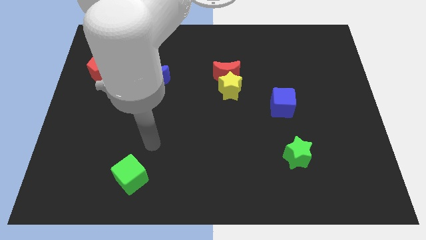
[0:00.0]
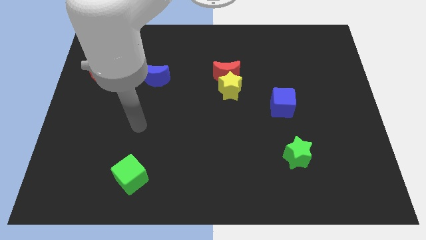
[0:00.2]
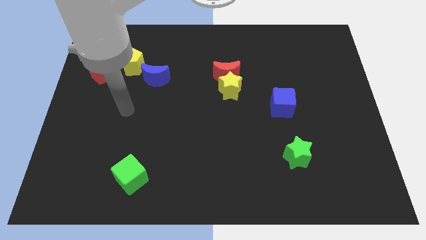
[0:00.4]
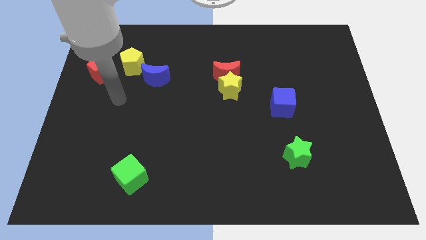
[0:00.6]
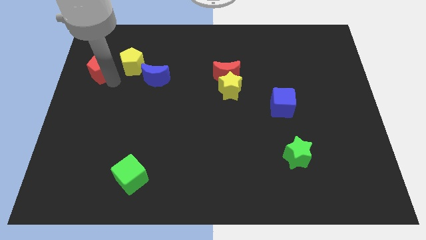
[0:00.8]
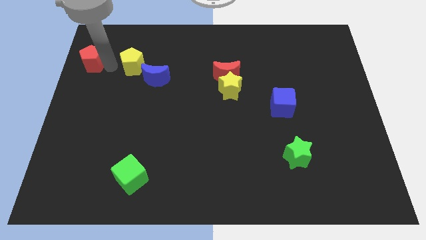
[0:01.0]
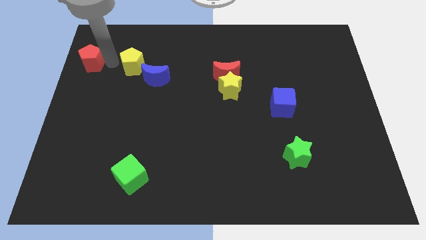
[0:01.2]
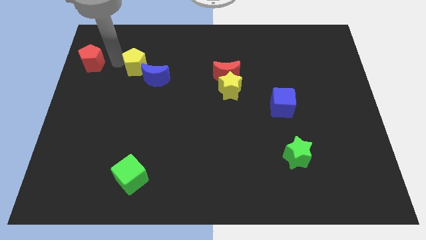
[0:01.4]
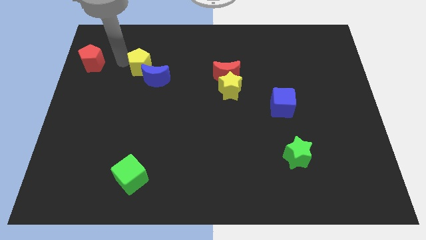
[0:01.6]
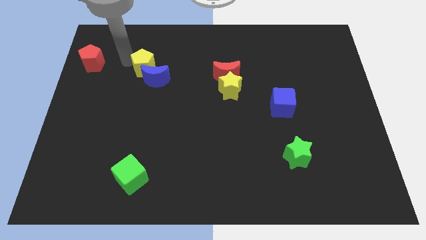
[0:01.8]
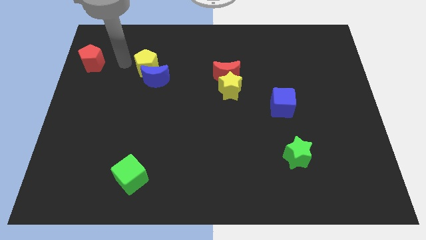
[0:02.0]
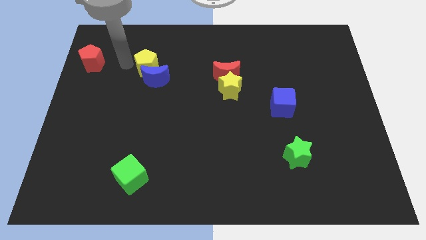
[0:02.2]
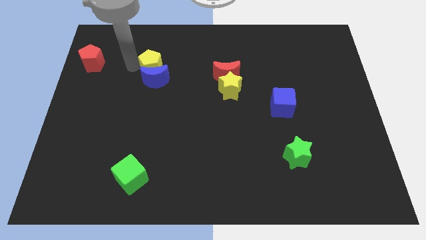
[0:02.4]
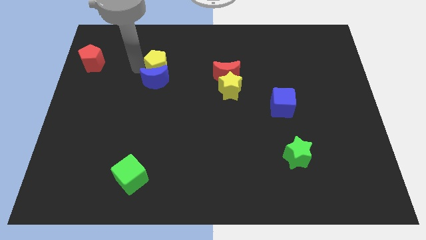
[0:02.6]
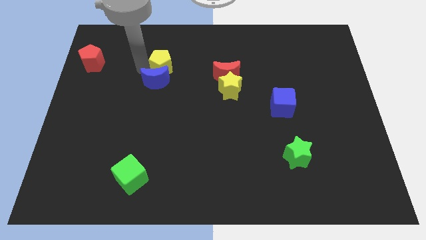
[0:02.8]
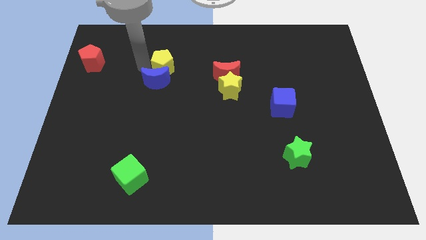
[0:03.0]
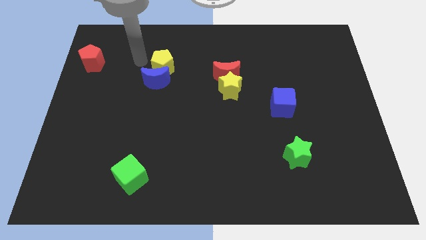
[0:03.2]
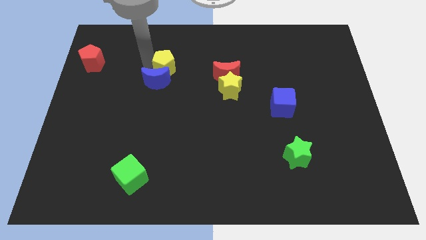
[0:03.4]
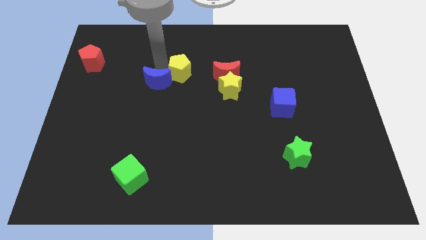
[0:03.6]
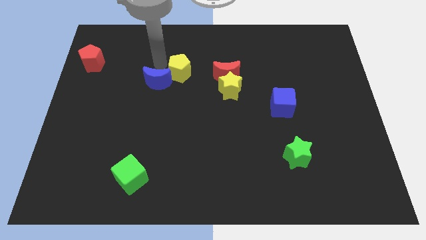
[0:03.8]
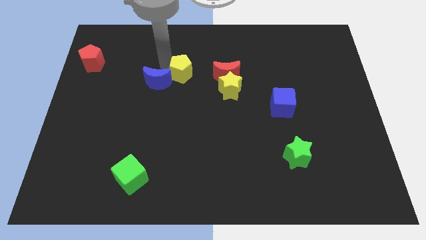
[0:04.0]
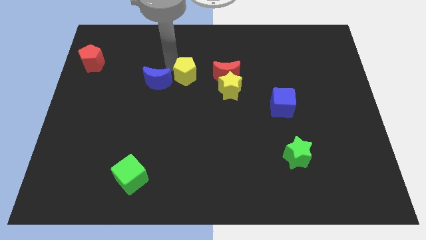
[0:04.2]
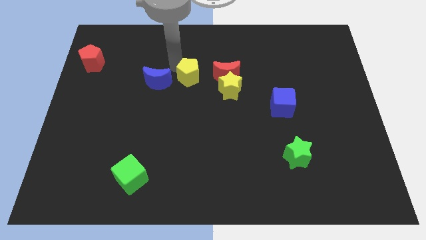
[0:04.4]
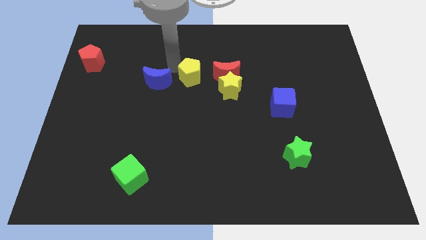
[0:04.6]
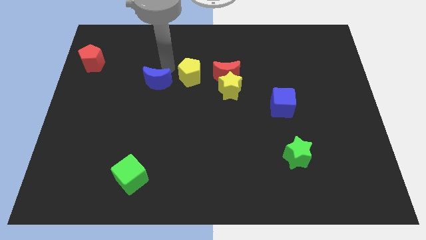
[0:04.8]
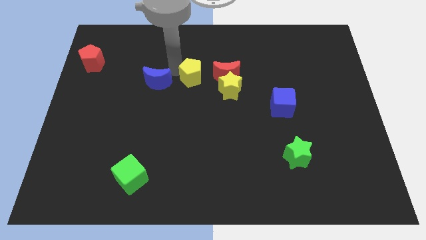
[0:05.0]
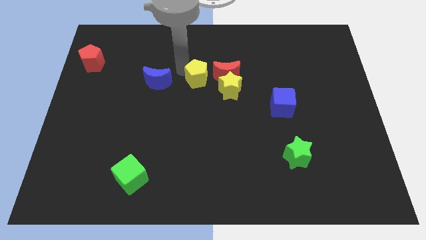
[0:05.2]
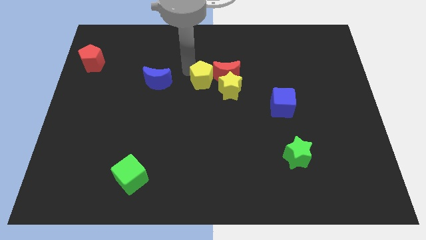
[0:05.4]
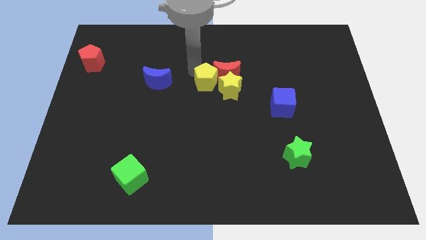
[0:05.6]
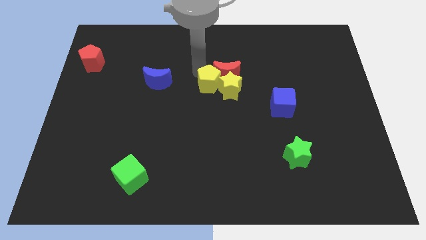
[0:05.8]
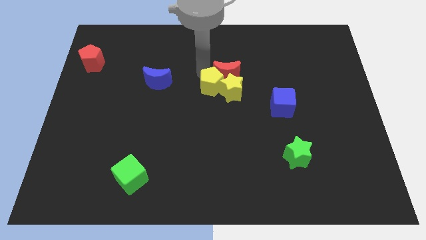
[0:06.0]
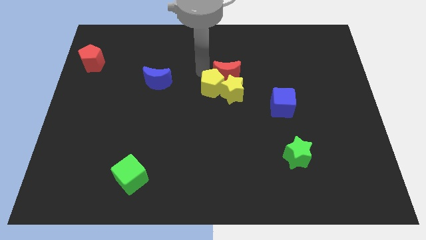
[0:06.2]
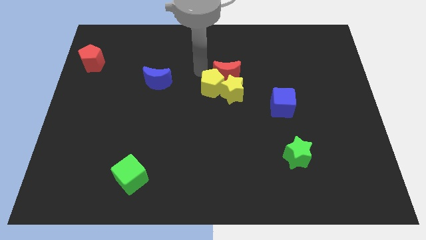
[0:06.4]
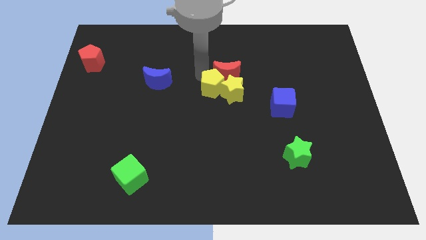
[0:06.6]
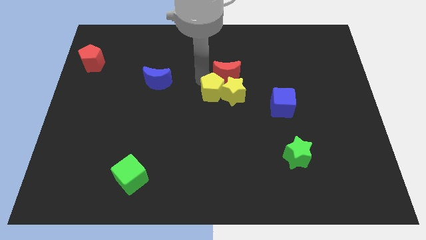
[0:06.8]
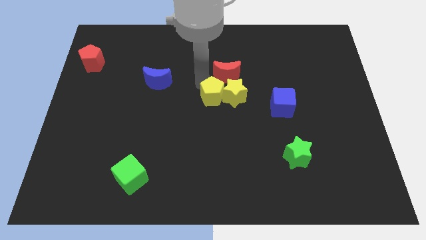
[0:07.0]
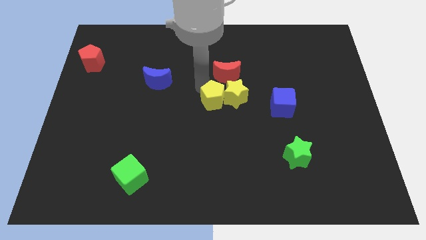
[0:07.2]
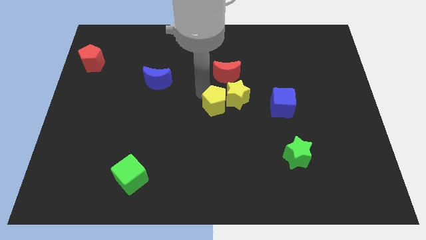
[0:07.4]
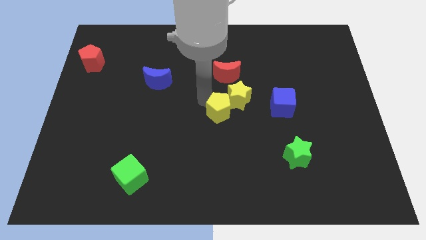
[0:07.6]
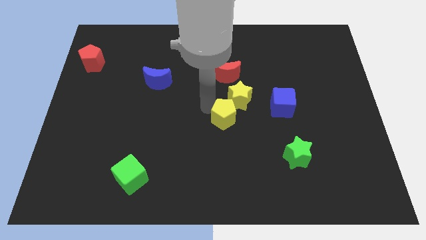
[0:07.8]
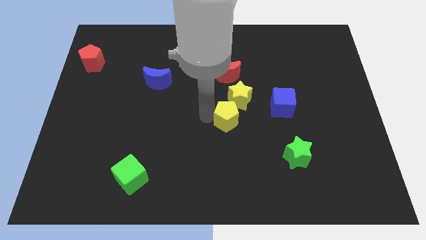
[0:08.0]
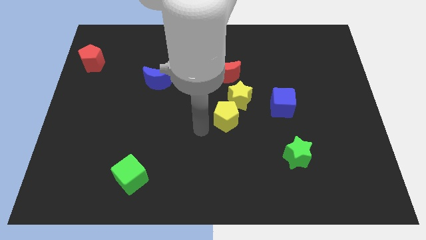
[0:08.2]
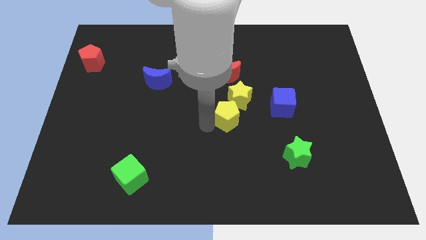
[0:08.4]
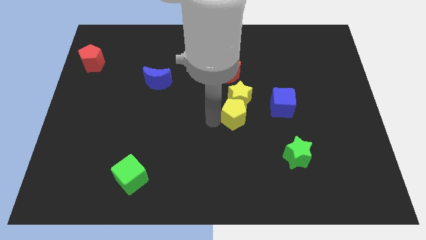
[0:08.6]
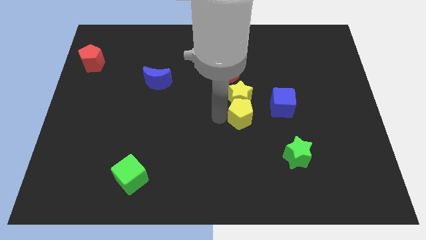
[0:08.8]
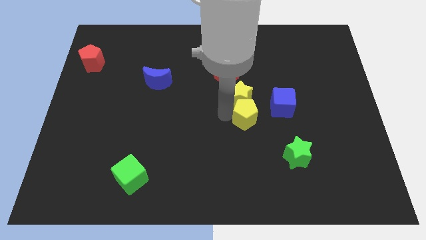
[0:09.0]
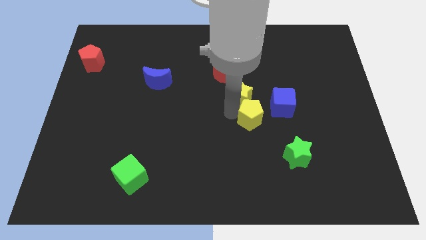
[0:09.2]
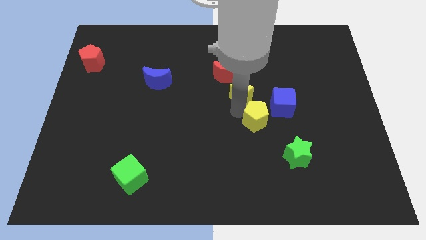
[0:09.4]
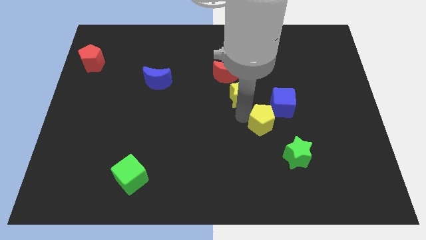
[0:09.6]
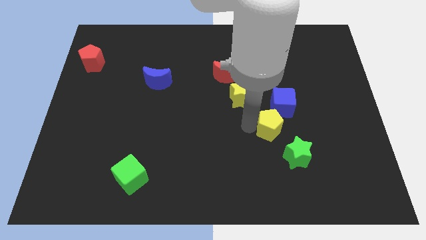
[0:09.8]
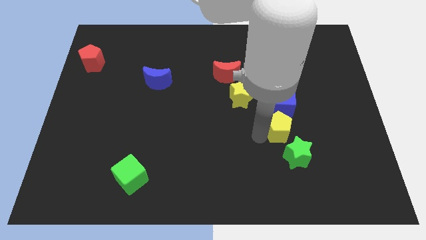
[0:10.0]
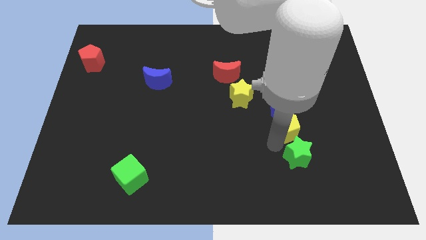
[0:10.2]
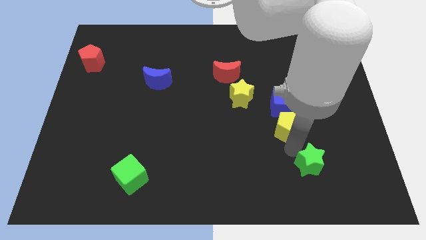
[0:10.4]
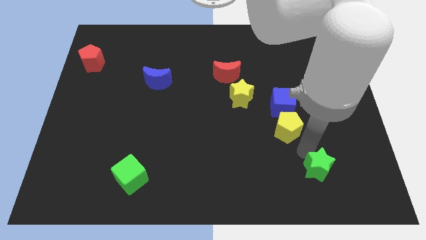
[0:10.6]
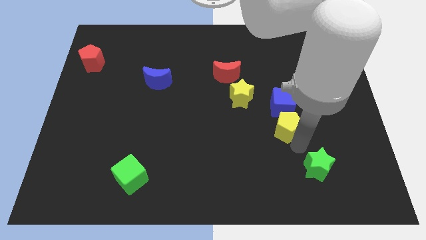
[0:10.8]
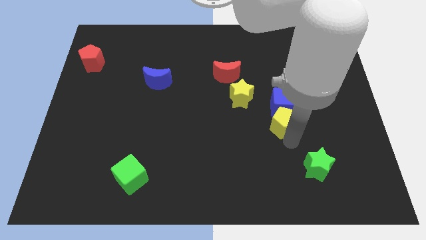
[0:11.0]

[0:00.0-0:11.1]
move the yellow pentagon next to the blue cube

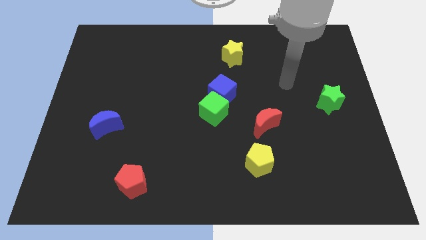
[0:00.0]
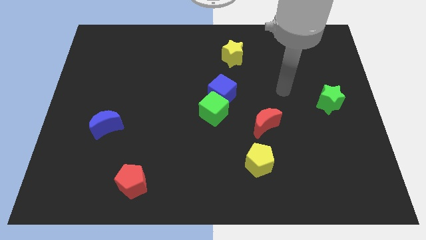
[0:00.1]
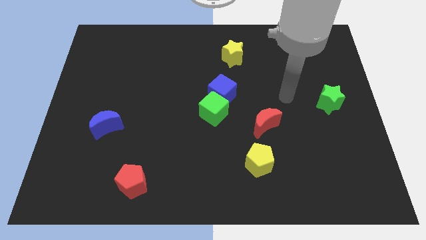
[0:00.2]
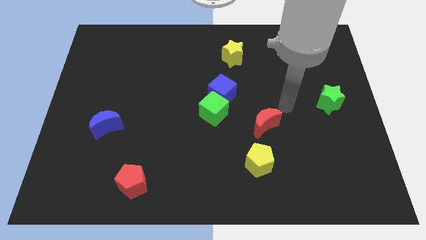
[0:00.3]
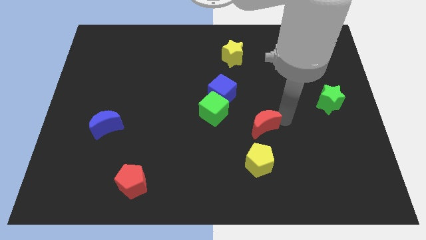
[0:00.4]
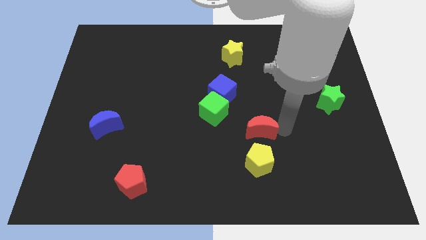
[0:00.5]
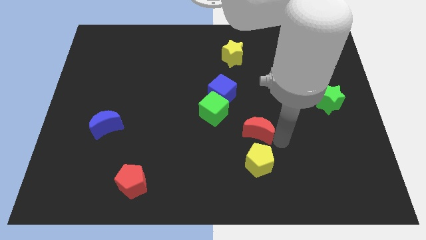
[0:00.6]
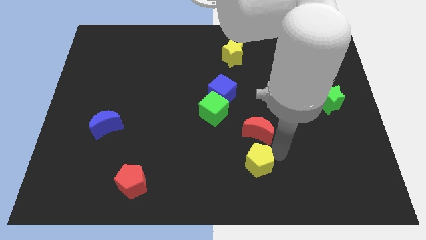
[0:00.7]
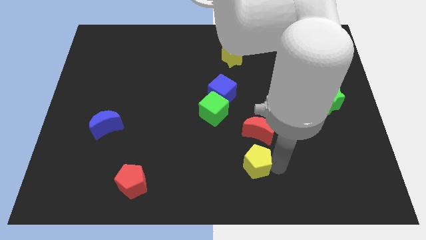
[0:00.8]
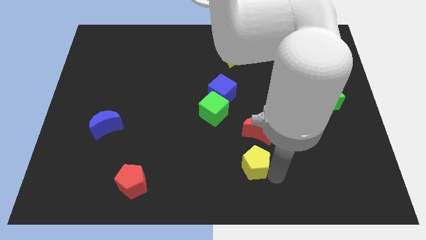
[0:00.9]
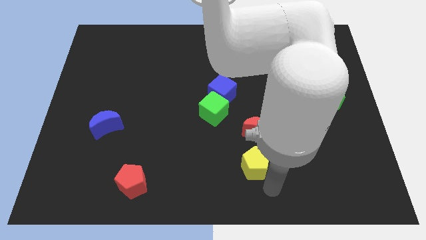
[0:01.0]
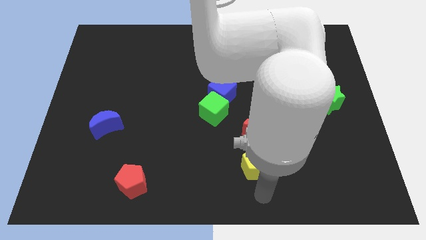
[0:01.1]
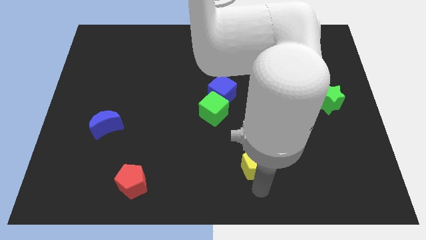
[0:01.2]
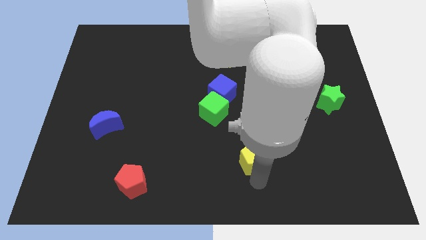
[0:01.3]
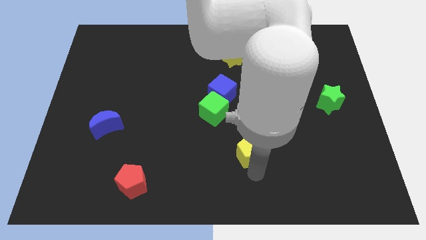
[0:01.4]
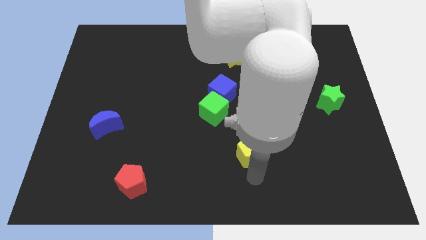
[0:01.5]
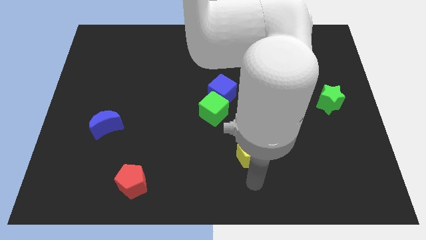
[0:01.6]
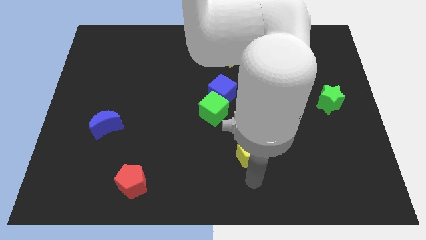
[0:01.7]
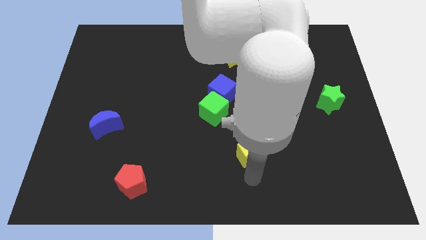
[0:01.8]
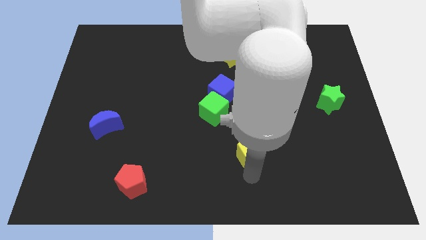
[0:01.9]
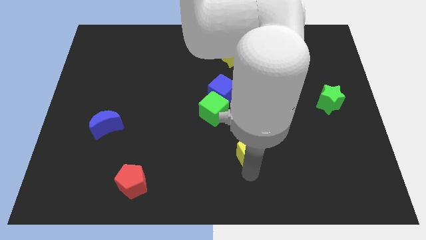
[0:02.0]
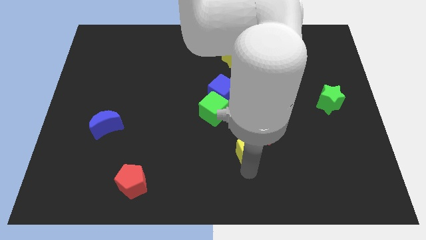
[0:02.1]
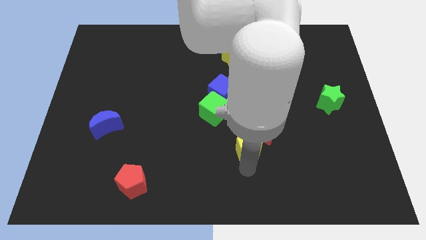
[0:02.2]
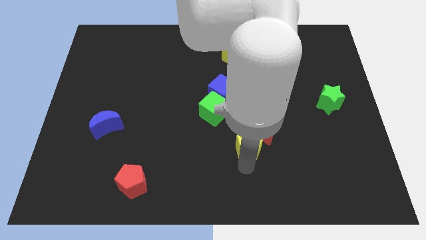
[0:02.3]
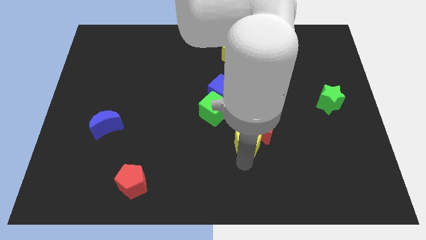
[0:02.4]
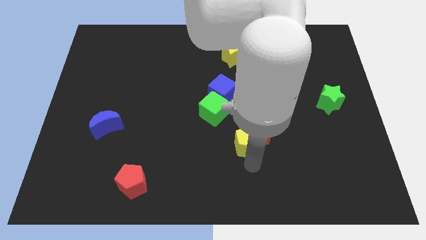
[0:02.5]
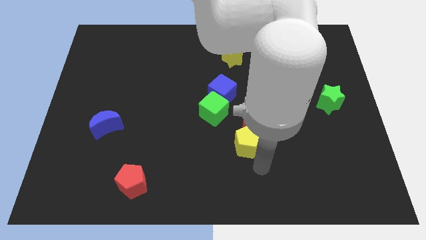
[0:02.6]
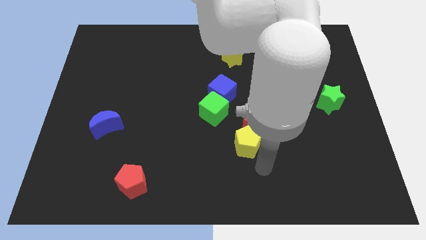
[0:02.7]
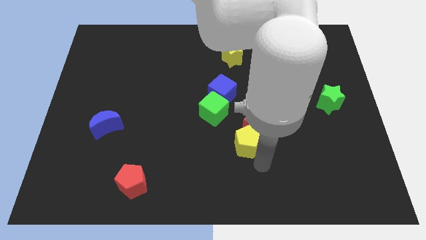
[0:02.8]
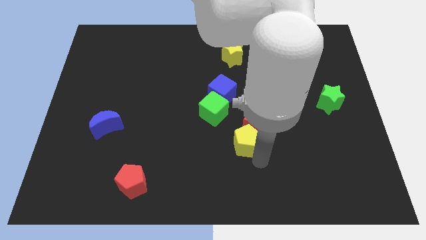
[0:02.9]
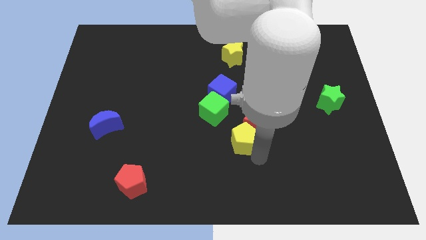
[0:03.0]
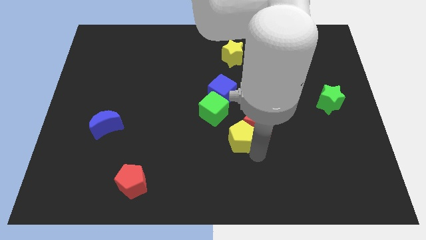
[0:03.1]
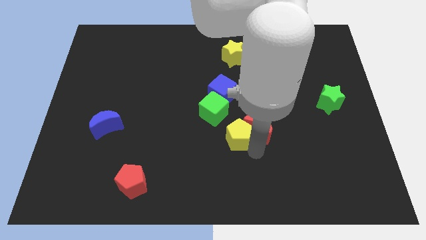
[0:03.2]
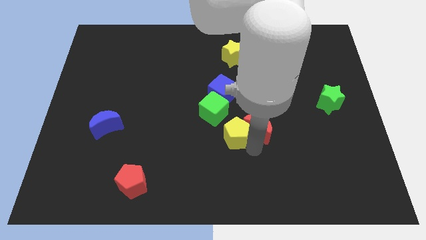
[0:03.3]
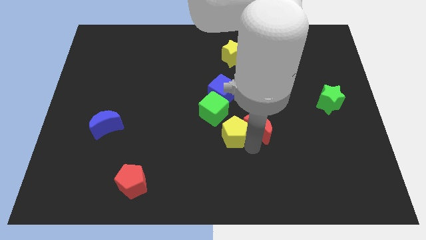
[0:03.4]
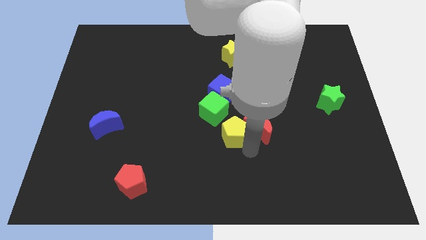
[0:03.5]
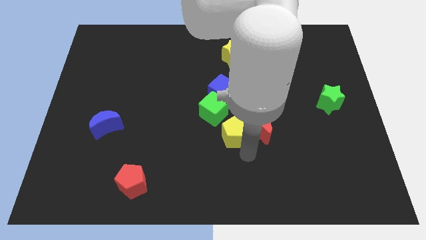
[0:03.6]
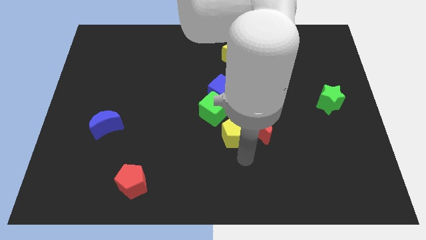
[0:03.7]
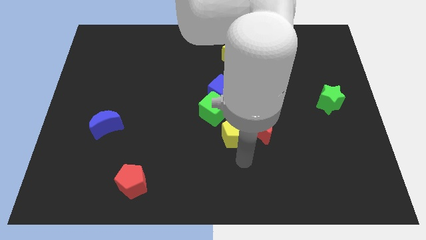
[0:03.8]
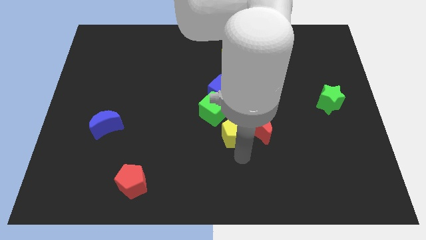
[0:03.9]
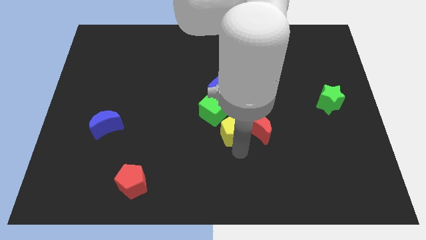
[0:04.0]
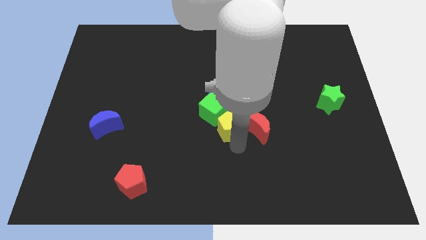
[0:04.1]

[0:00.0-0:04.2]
move the yellow pentagon towards the green cube
